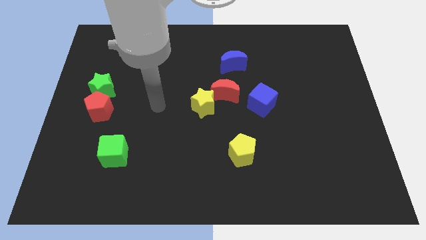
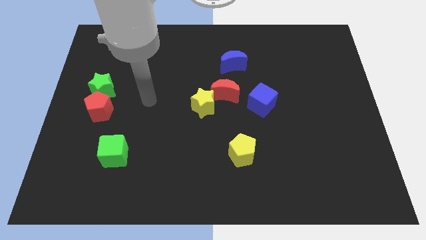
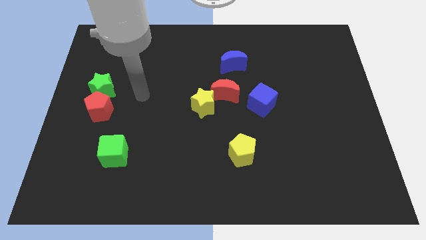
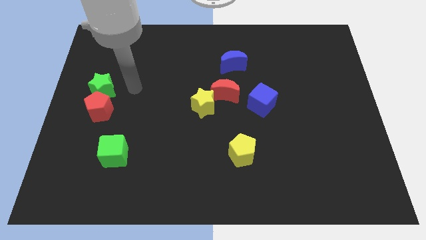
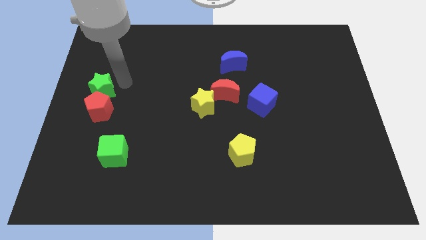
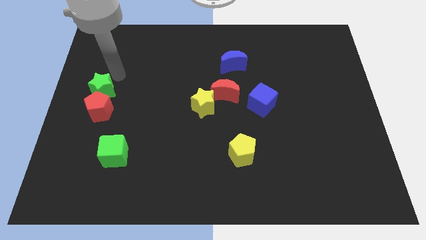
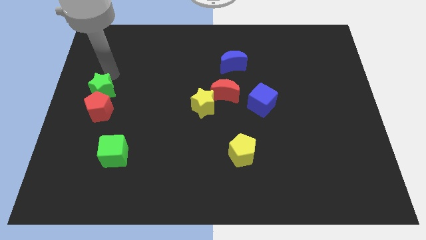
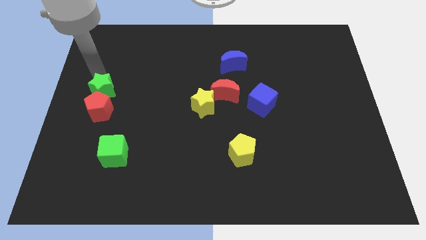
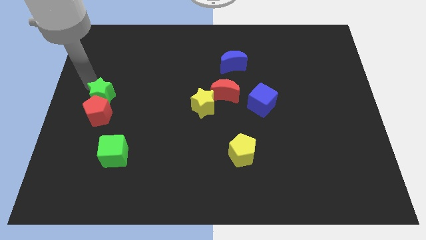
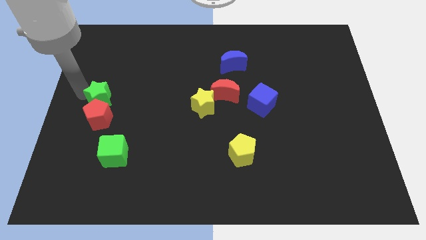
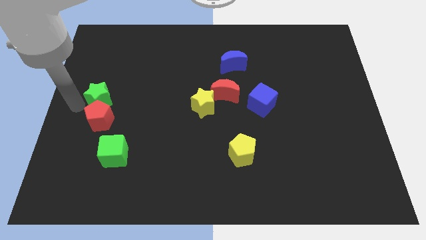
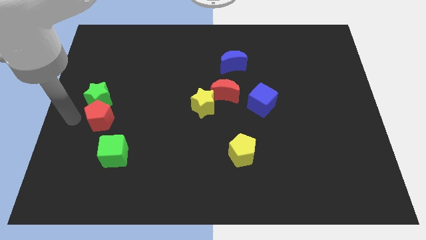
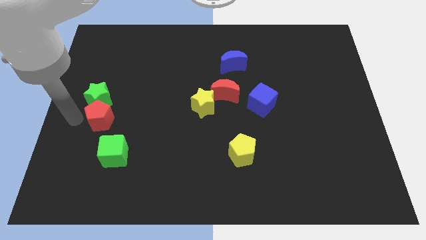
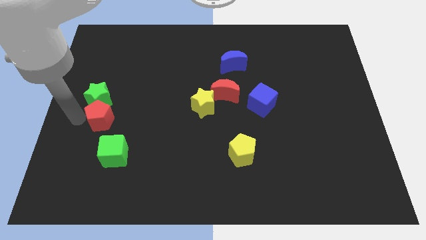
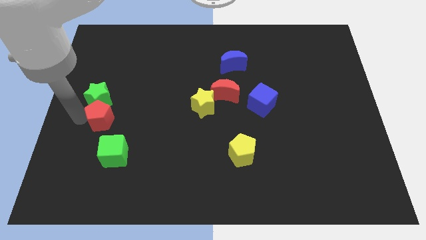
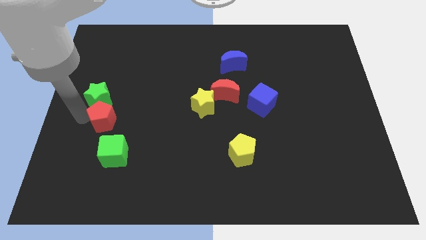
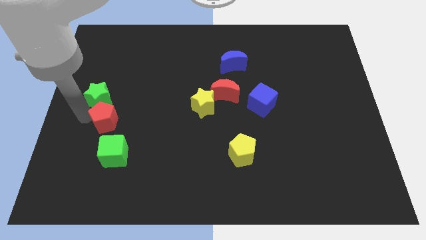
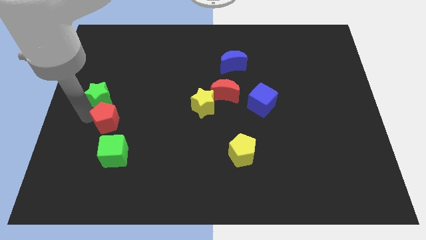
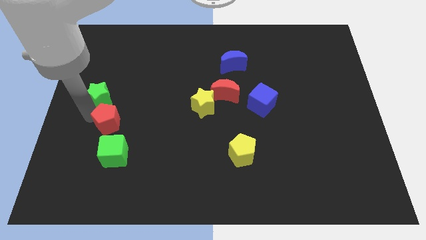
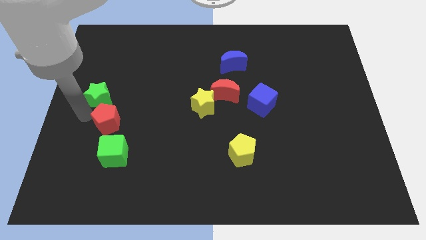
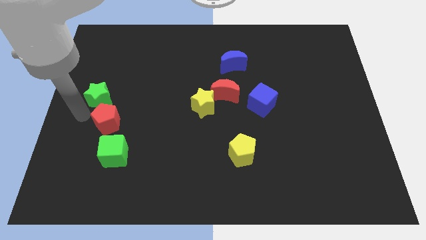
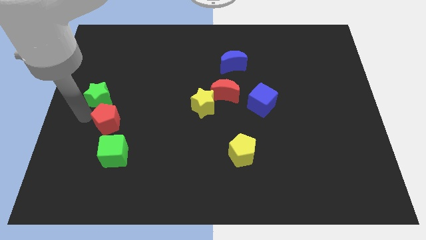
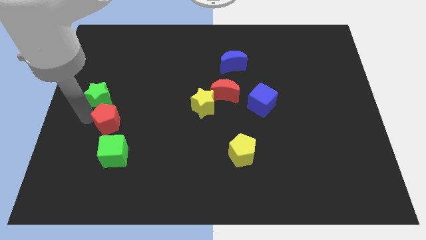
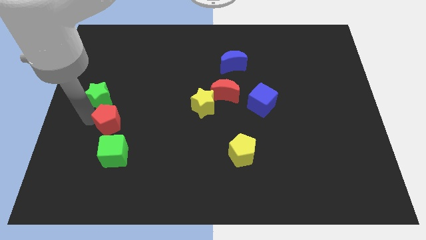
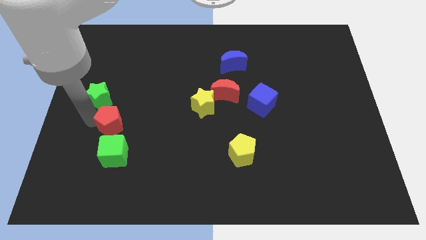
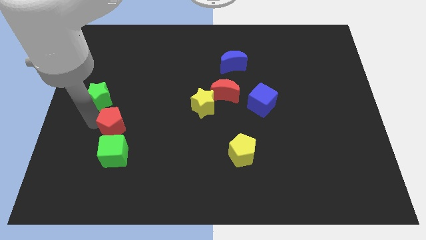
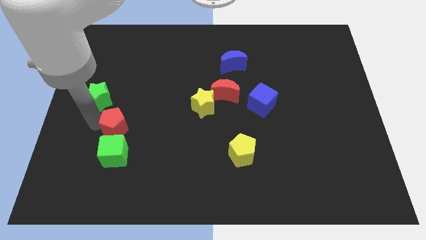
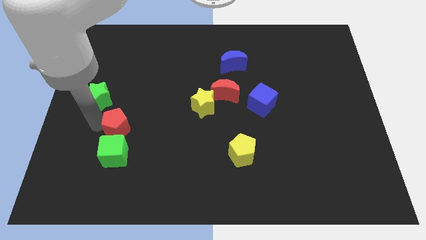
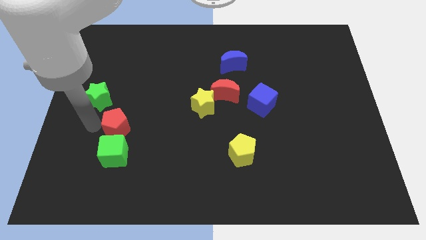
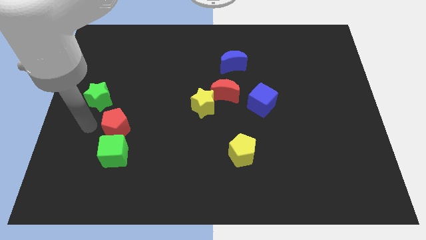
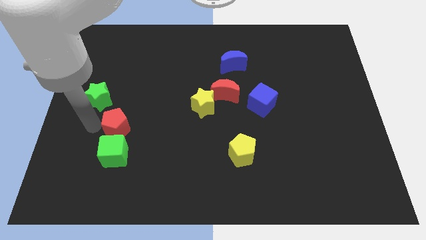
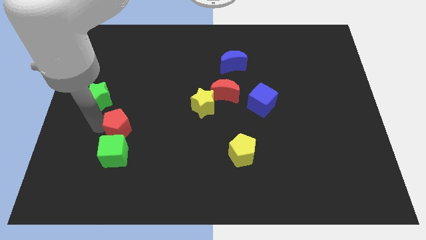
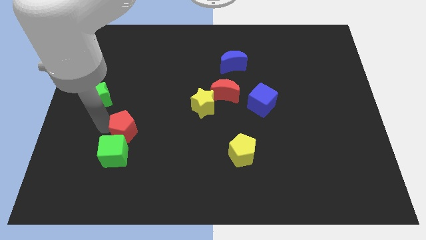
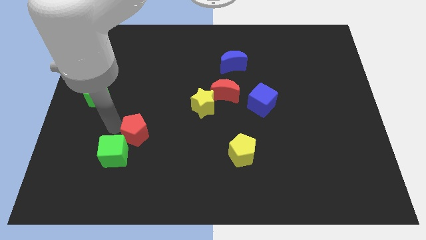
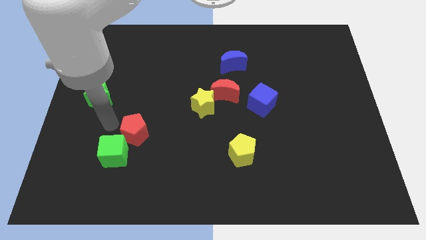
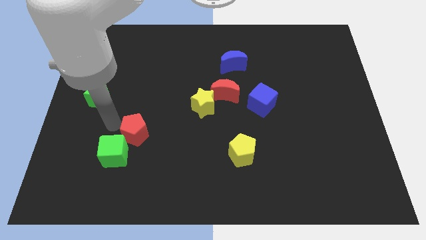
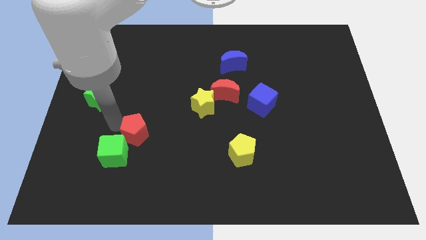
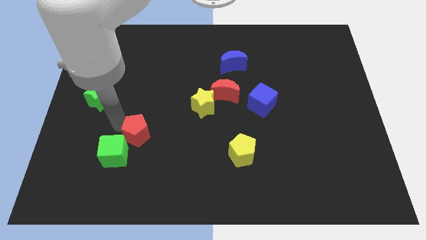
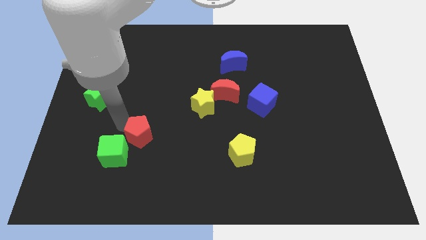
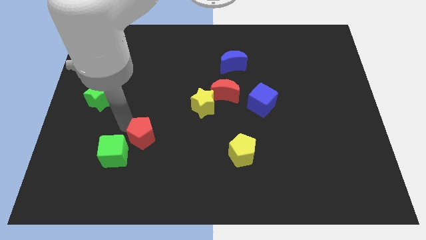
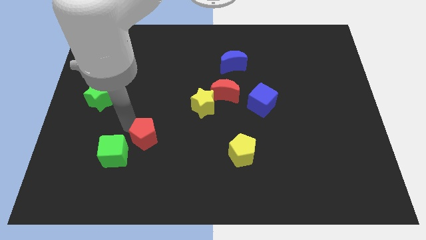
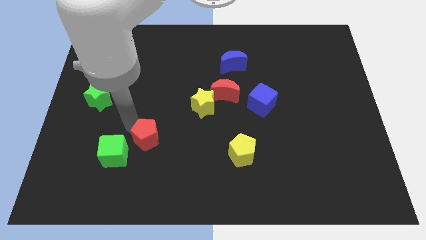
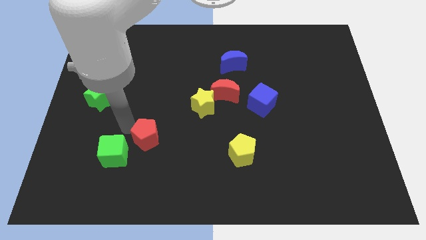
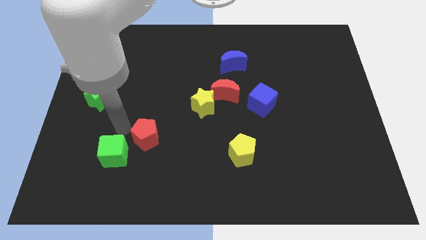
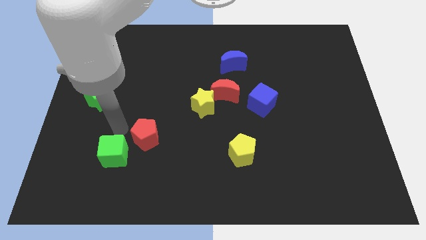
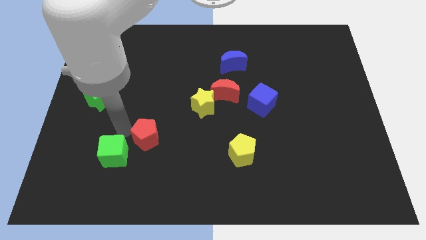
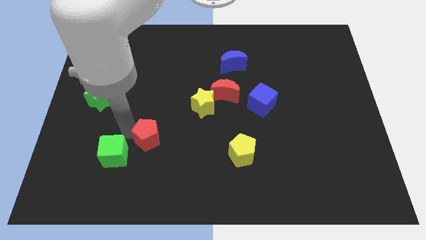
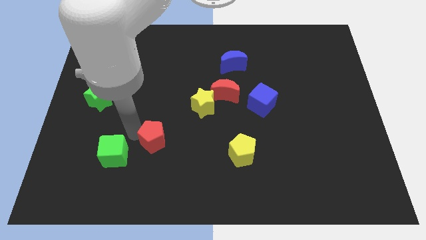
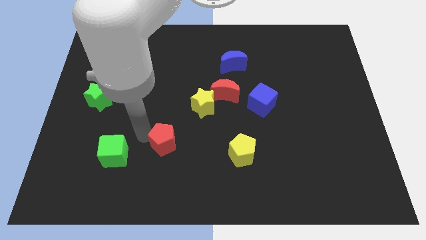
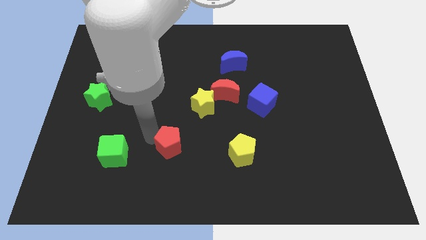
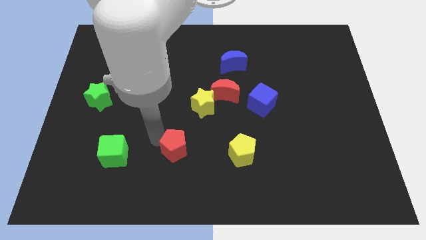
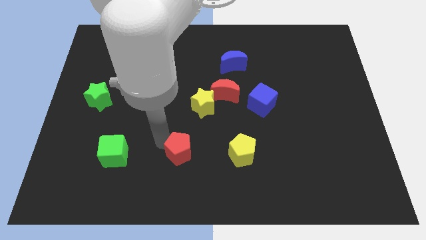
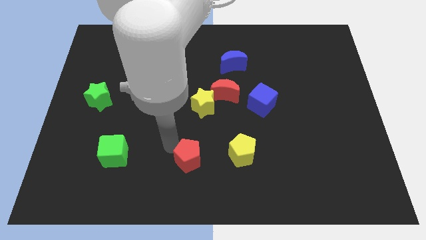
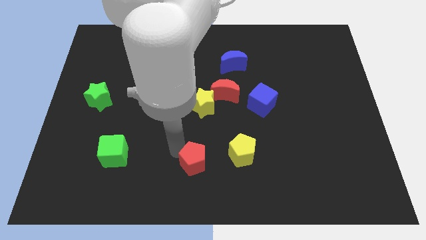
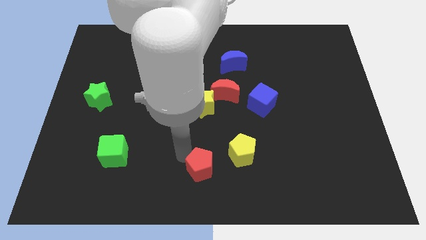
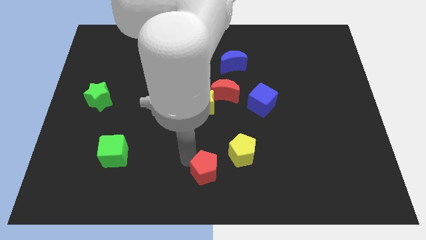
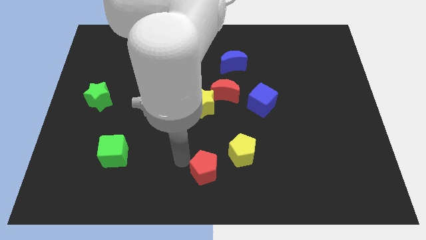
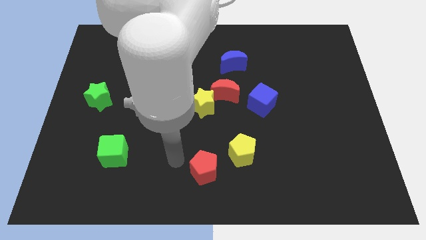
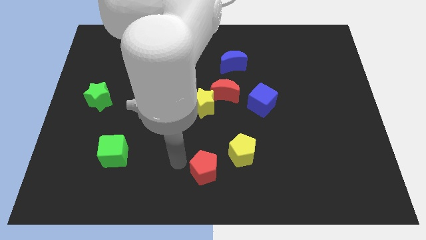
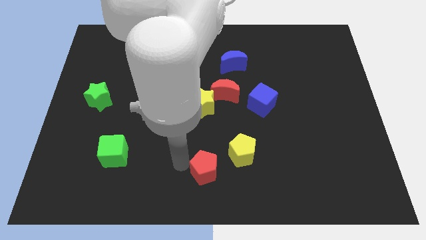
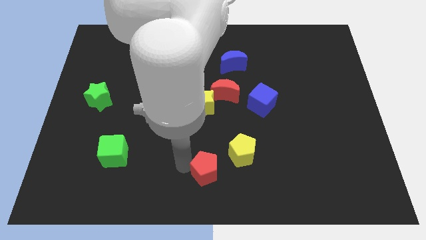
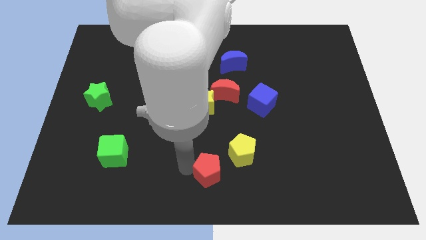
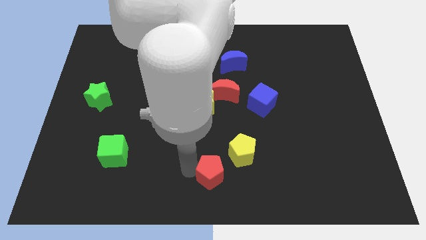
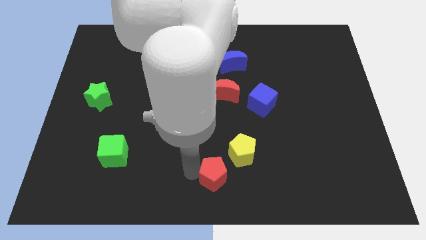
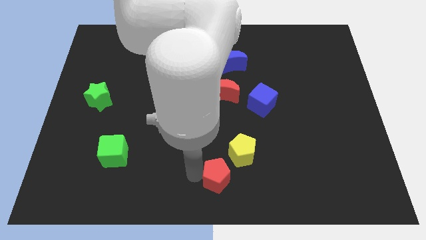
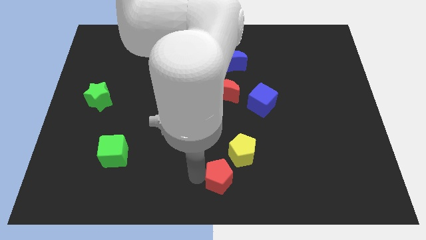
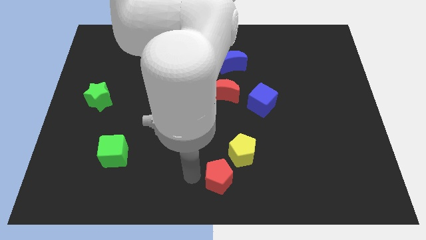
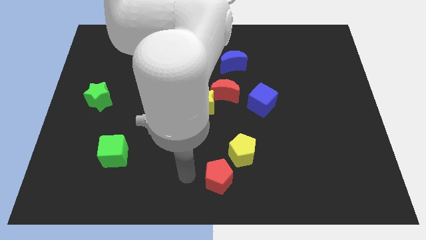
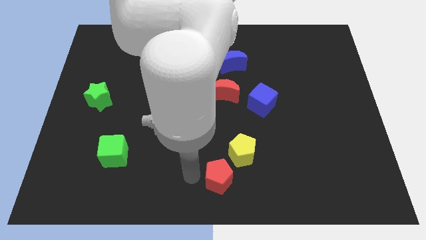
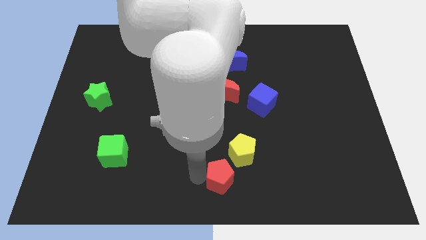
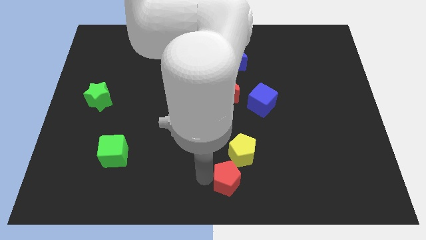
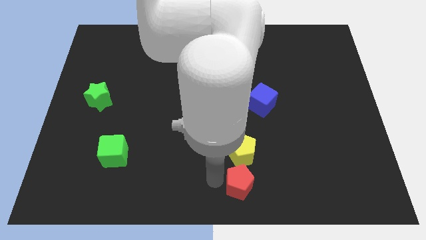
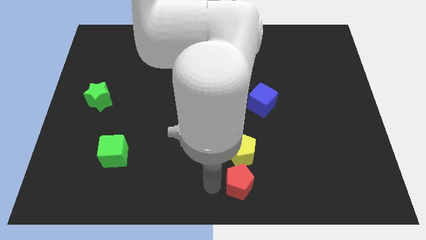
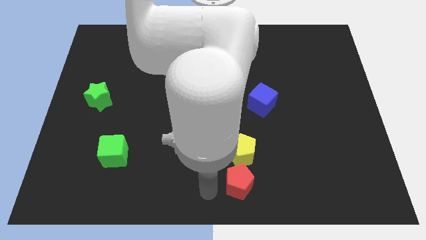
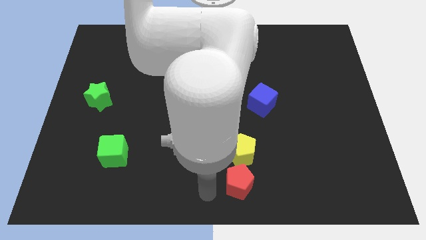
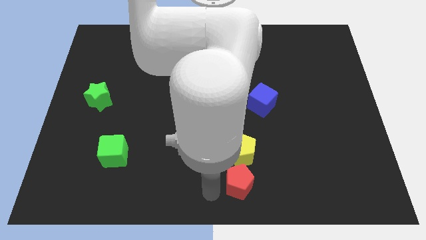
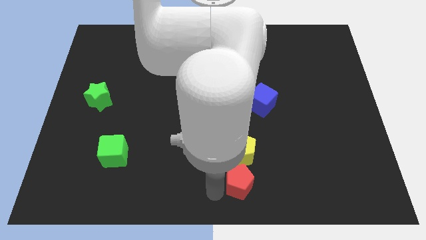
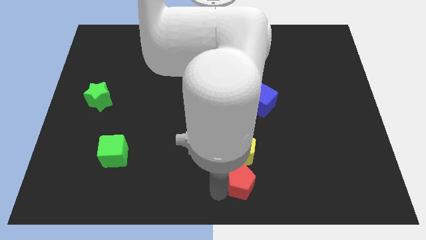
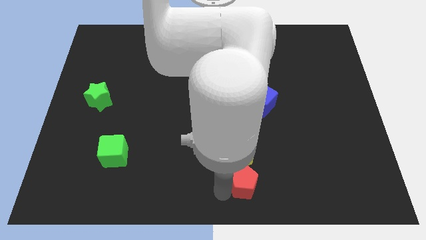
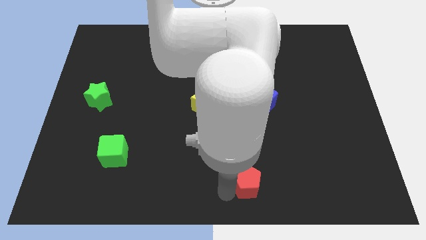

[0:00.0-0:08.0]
slide the red pentagon to the bottom right side of the yellow pentagon
